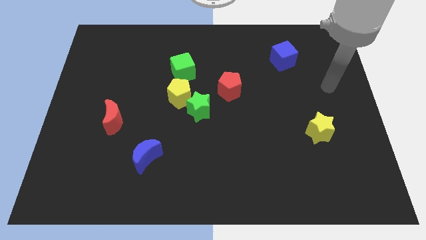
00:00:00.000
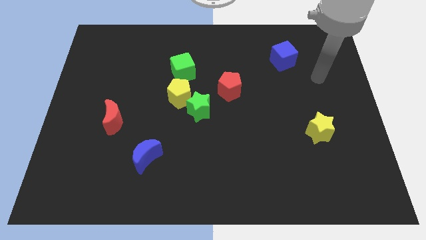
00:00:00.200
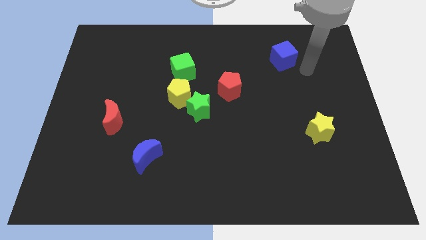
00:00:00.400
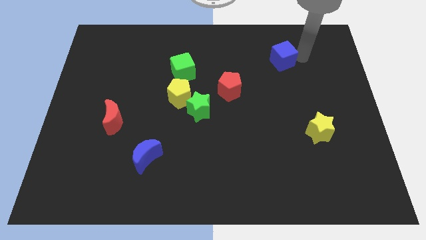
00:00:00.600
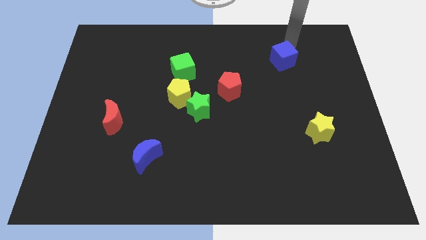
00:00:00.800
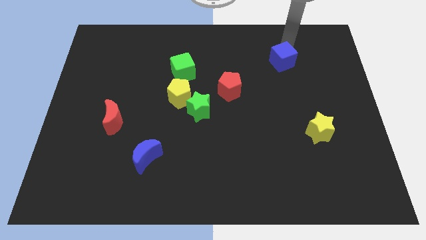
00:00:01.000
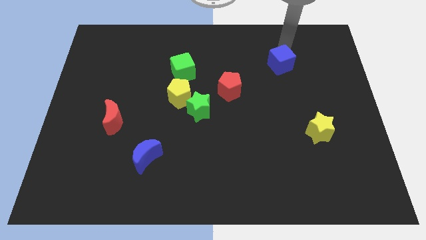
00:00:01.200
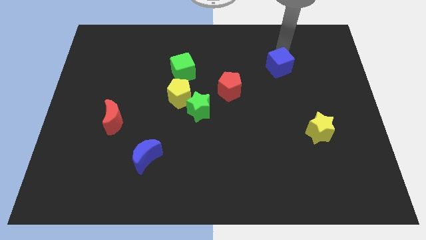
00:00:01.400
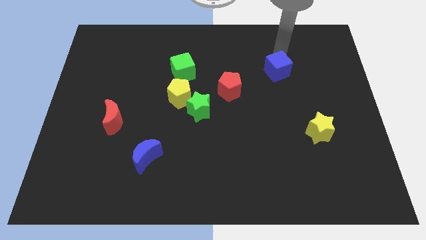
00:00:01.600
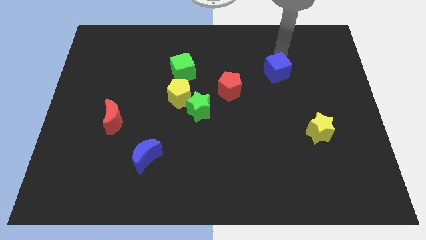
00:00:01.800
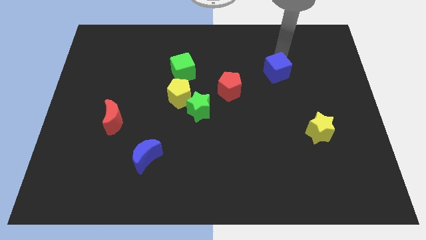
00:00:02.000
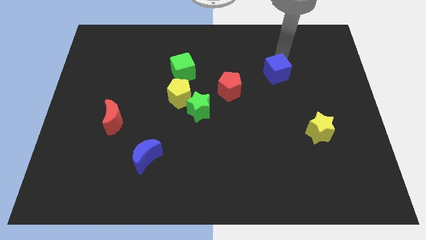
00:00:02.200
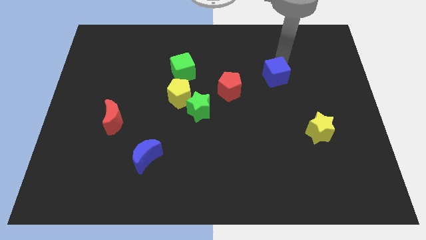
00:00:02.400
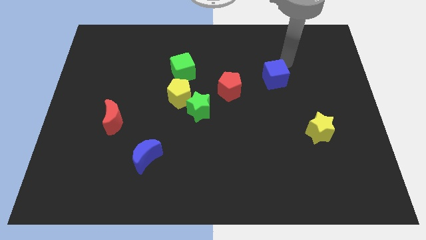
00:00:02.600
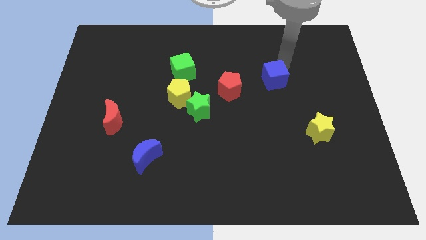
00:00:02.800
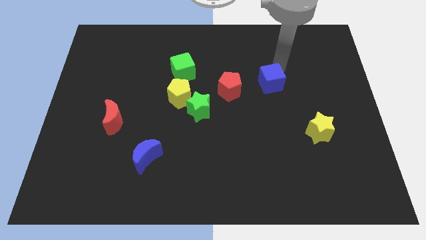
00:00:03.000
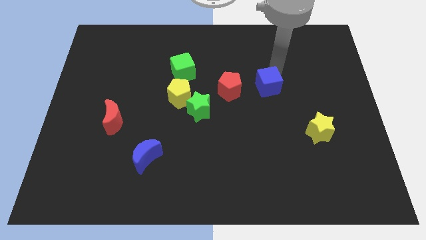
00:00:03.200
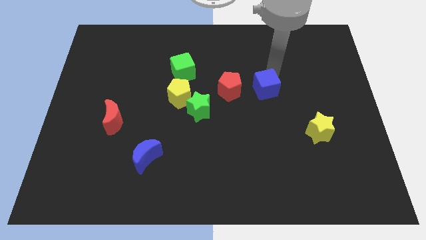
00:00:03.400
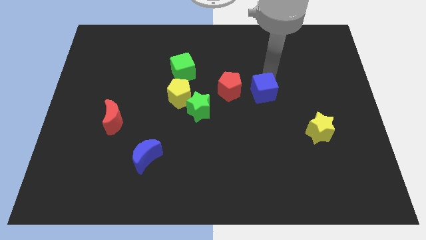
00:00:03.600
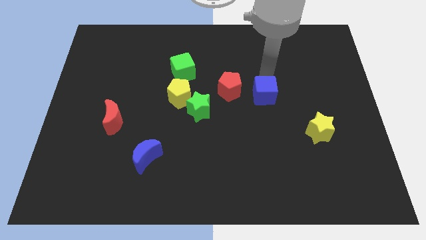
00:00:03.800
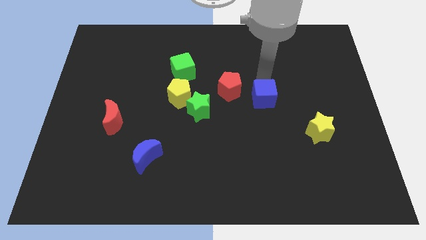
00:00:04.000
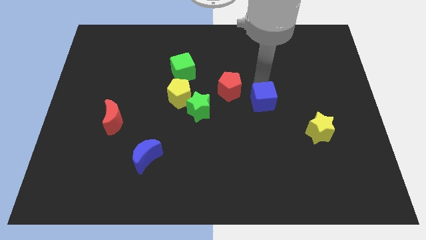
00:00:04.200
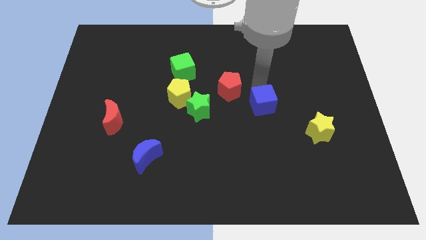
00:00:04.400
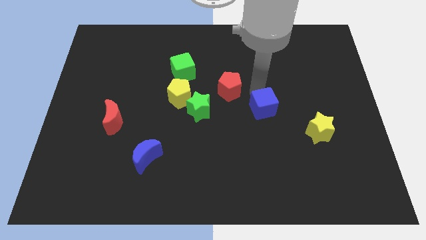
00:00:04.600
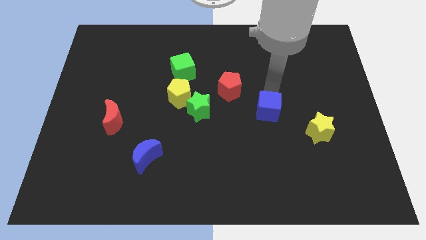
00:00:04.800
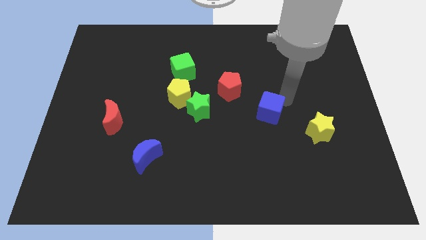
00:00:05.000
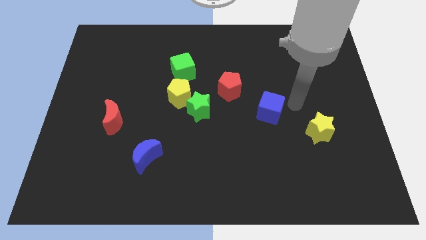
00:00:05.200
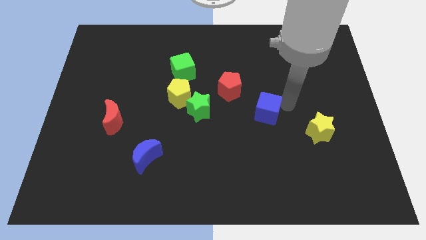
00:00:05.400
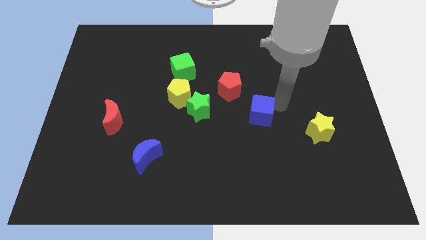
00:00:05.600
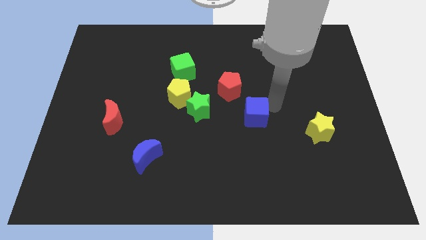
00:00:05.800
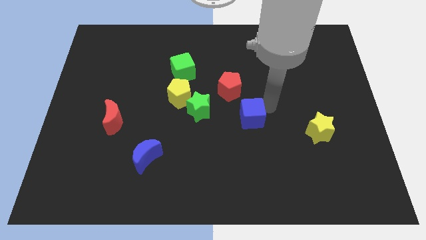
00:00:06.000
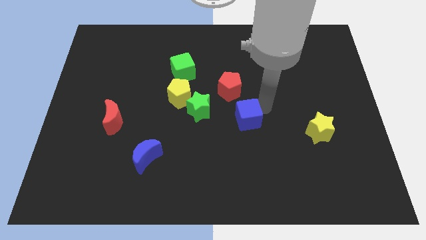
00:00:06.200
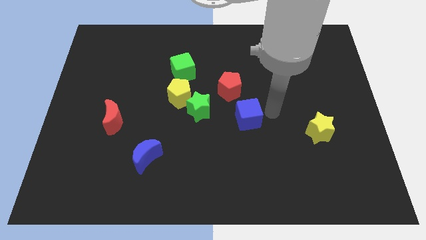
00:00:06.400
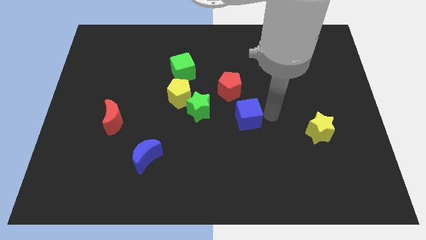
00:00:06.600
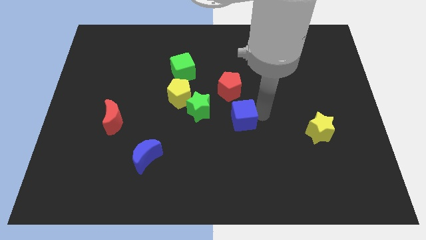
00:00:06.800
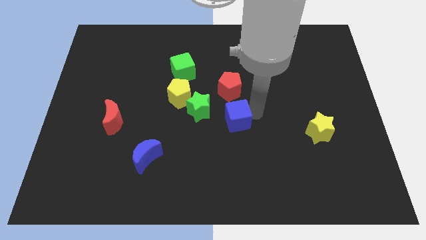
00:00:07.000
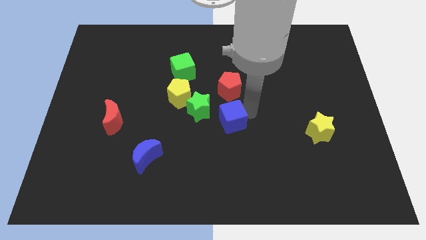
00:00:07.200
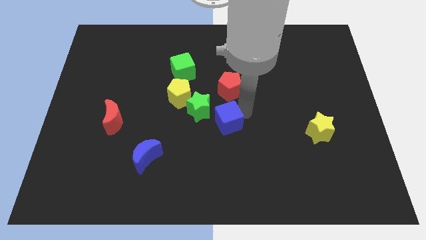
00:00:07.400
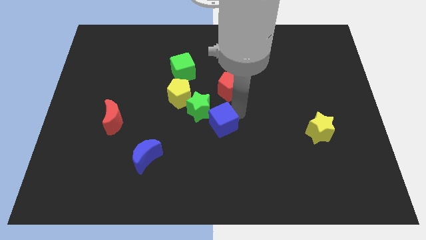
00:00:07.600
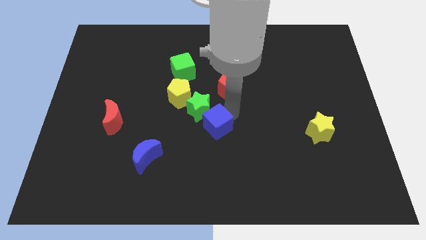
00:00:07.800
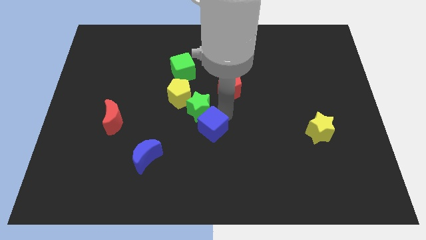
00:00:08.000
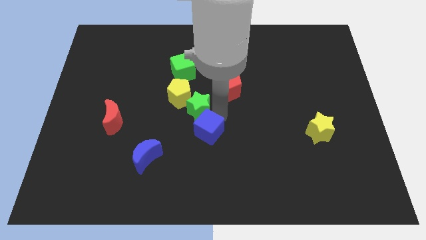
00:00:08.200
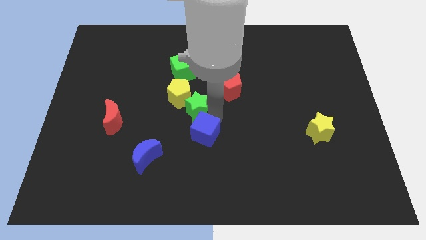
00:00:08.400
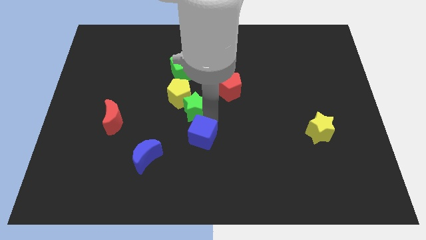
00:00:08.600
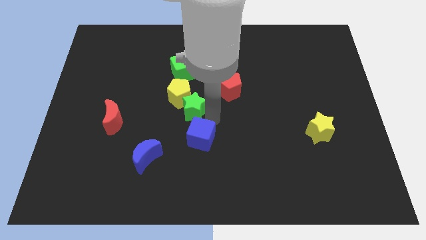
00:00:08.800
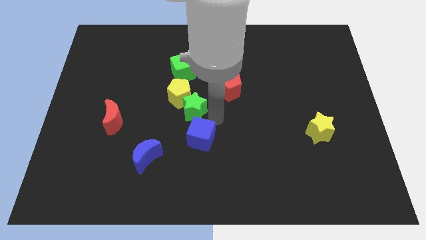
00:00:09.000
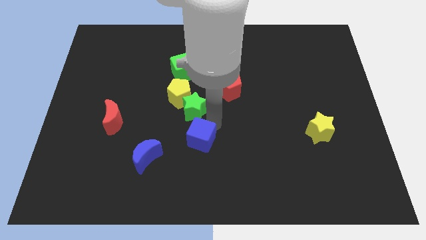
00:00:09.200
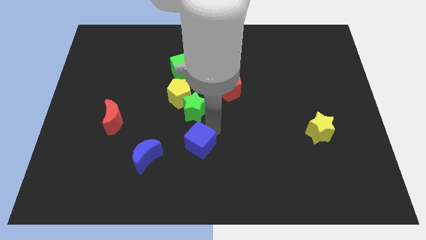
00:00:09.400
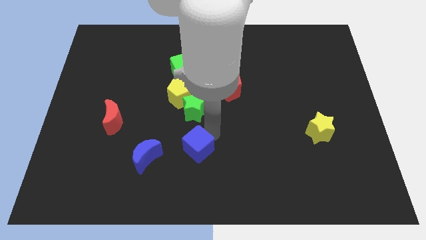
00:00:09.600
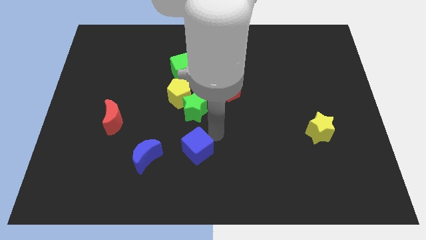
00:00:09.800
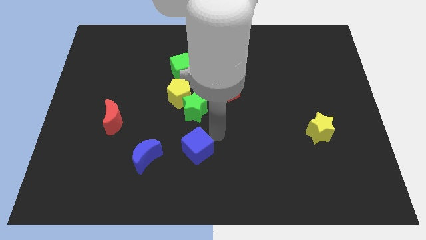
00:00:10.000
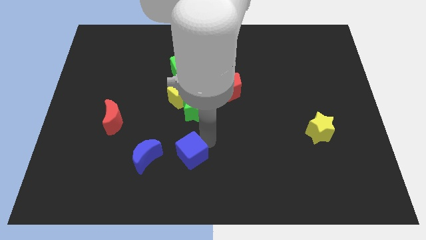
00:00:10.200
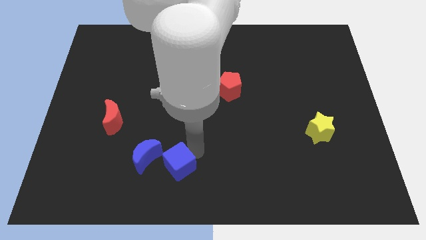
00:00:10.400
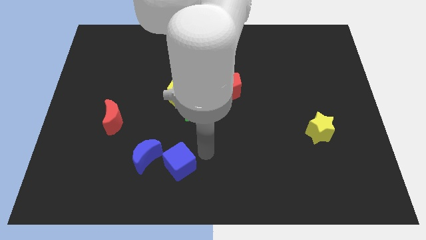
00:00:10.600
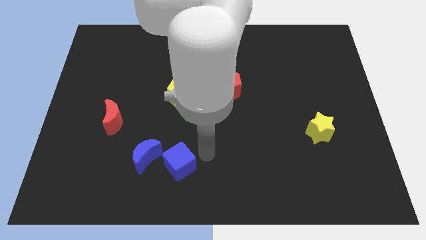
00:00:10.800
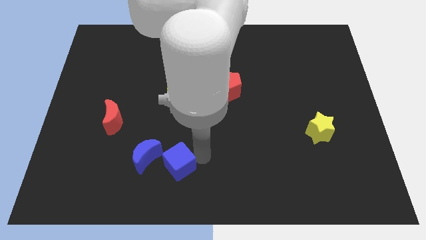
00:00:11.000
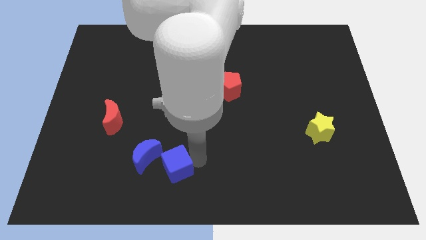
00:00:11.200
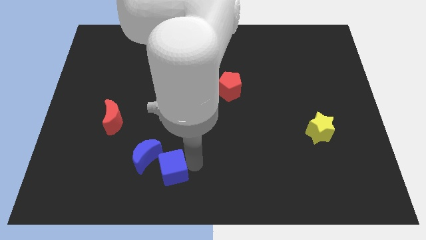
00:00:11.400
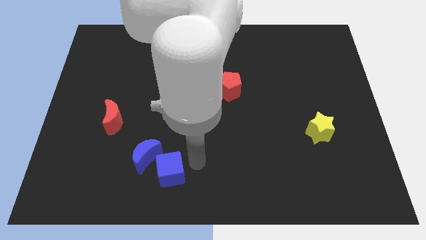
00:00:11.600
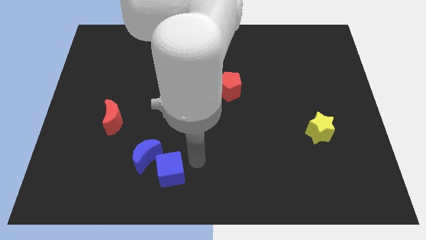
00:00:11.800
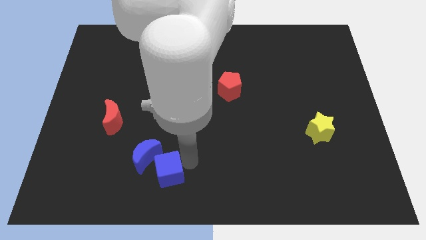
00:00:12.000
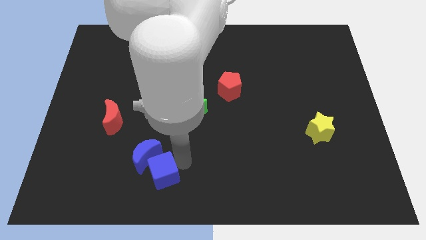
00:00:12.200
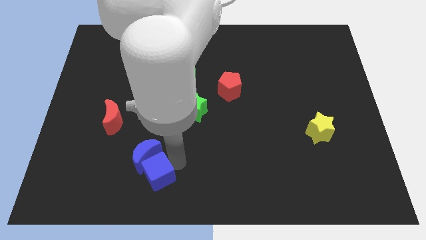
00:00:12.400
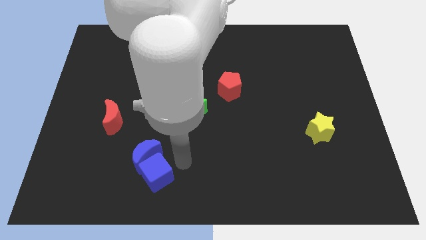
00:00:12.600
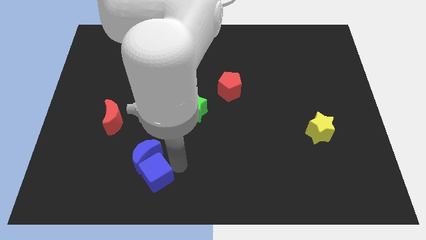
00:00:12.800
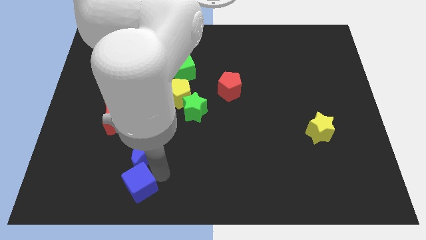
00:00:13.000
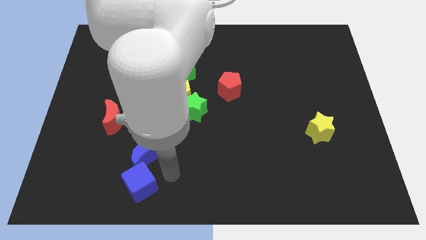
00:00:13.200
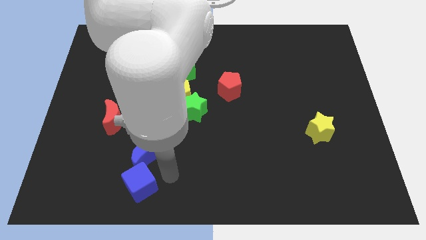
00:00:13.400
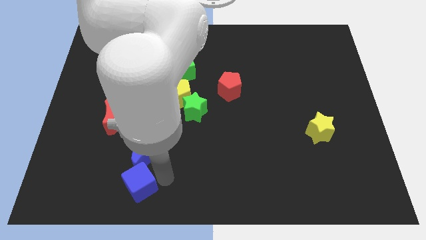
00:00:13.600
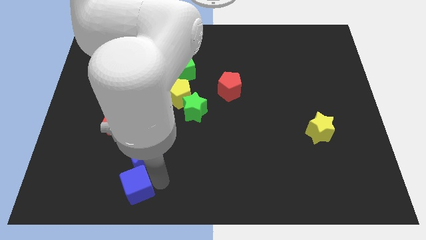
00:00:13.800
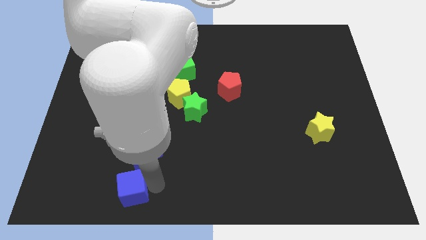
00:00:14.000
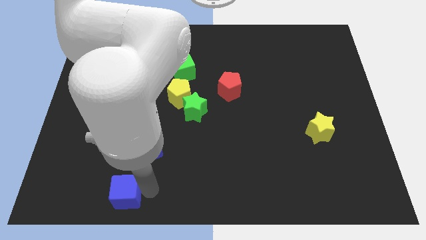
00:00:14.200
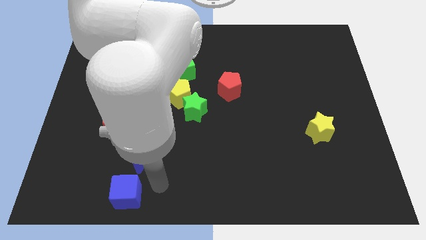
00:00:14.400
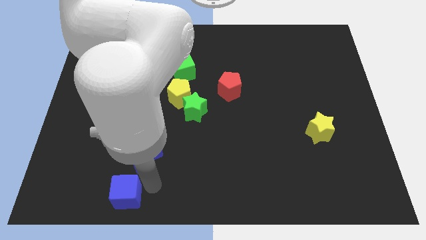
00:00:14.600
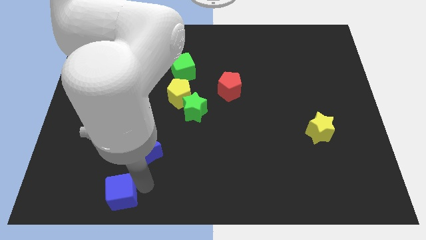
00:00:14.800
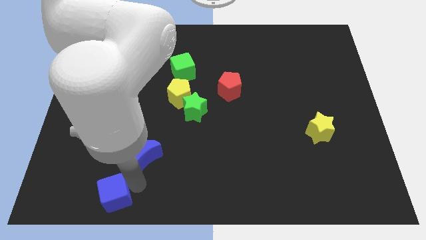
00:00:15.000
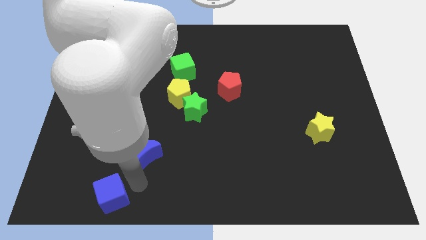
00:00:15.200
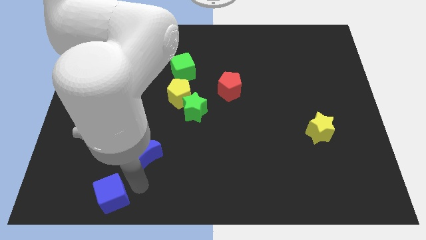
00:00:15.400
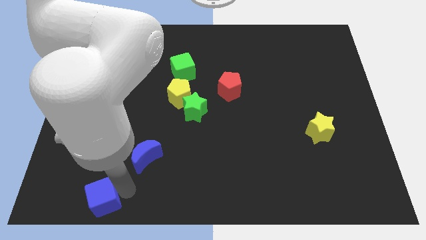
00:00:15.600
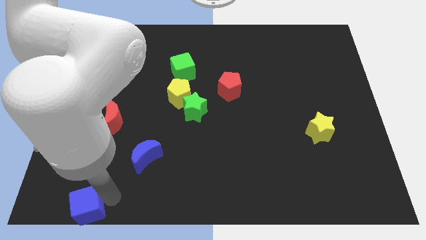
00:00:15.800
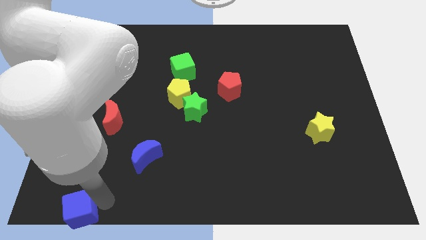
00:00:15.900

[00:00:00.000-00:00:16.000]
push the blue cube to the bottom left of the board
